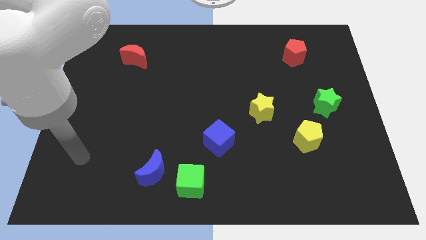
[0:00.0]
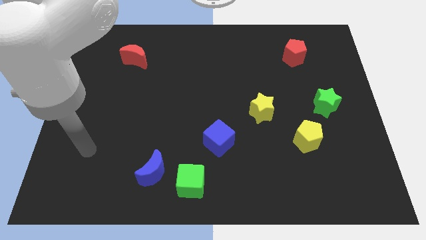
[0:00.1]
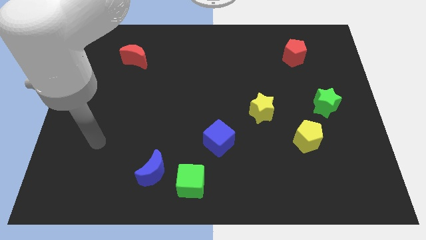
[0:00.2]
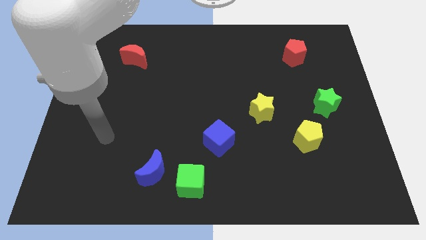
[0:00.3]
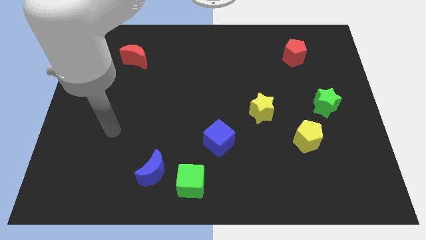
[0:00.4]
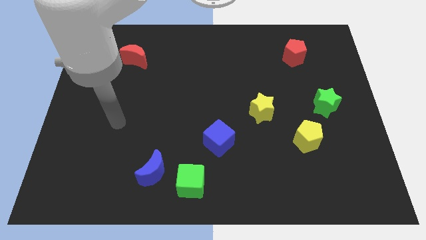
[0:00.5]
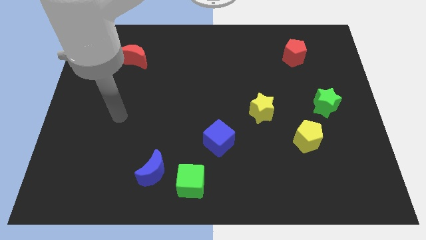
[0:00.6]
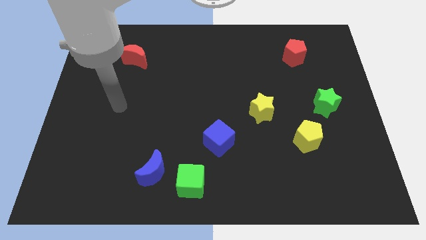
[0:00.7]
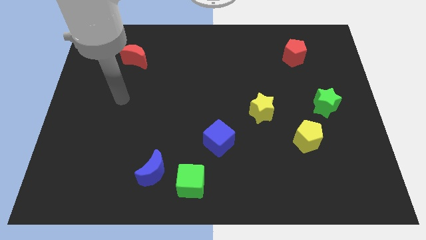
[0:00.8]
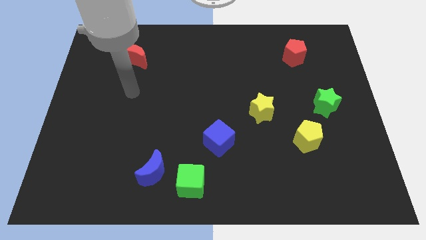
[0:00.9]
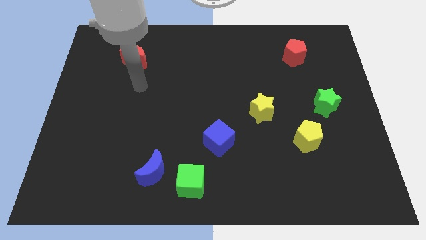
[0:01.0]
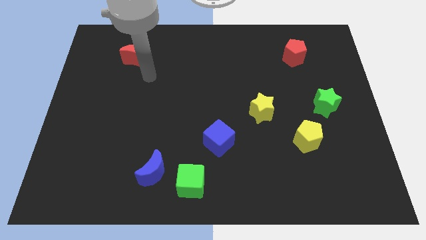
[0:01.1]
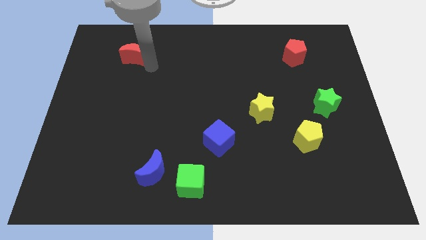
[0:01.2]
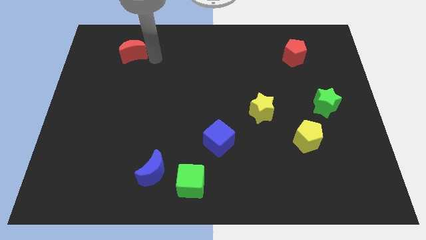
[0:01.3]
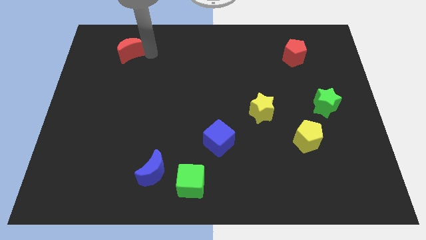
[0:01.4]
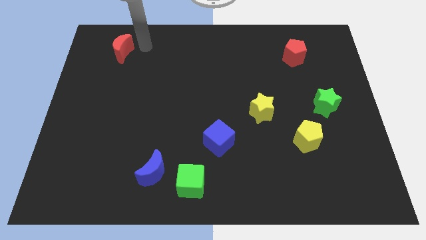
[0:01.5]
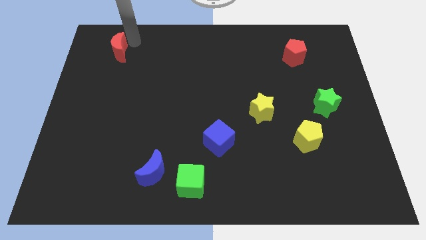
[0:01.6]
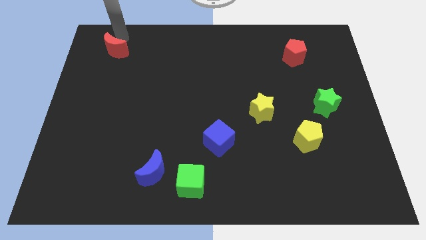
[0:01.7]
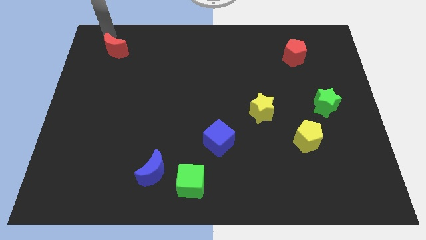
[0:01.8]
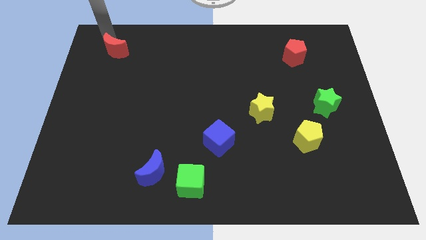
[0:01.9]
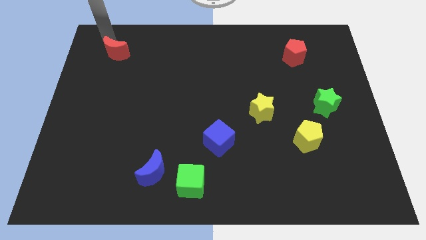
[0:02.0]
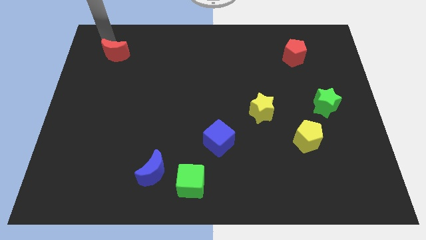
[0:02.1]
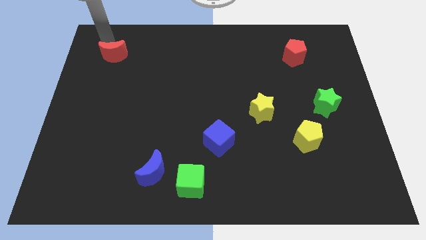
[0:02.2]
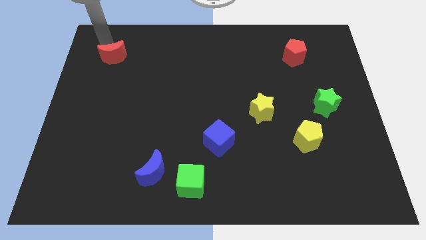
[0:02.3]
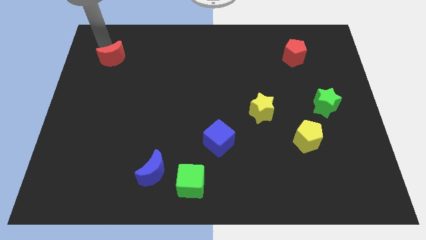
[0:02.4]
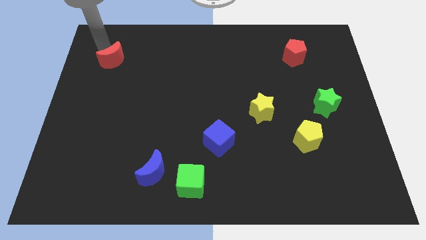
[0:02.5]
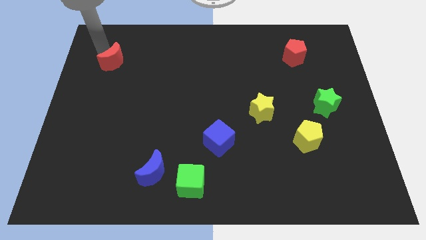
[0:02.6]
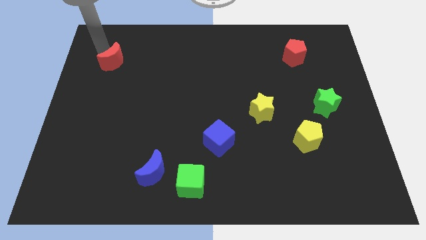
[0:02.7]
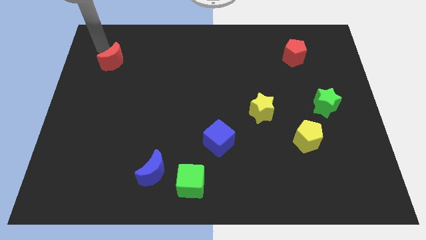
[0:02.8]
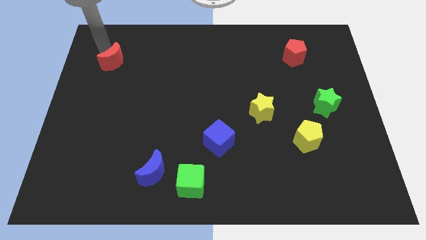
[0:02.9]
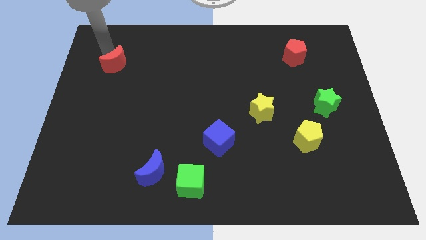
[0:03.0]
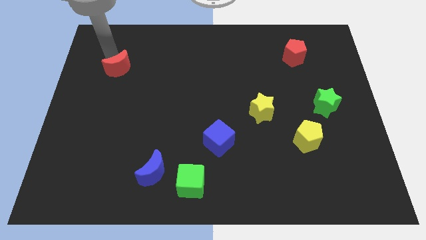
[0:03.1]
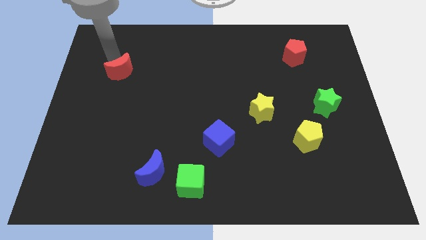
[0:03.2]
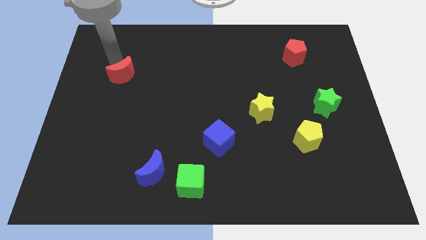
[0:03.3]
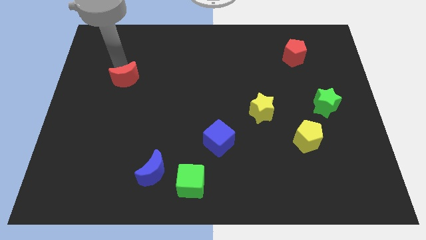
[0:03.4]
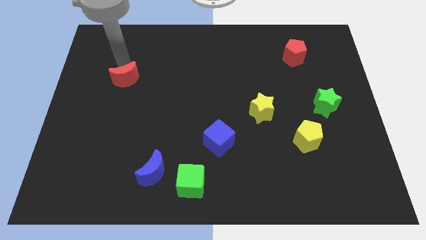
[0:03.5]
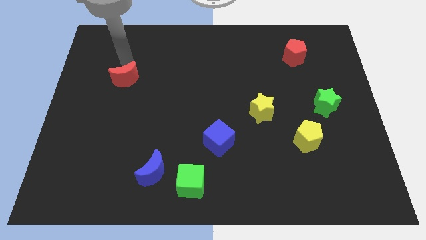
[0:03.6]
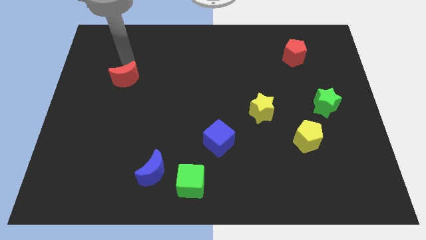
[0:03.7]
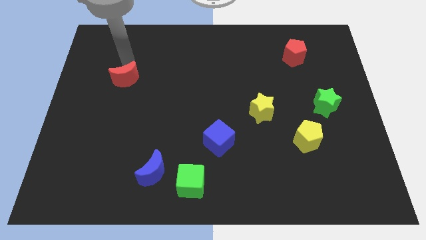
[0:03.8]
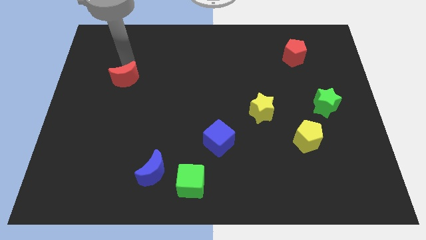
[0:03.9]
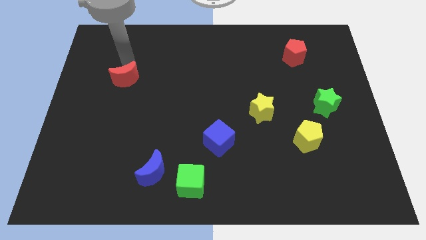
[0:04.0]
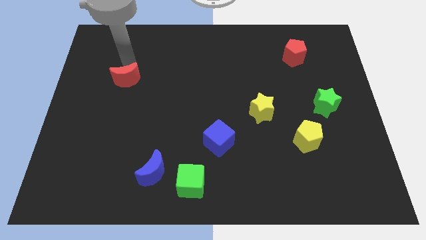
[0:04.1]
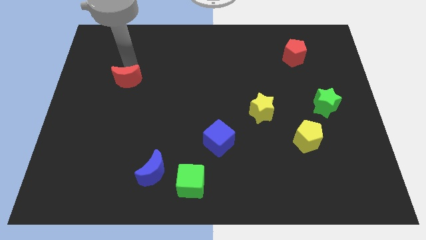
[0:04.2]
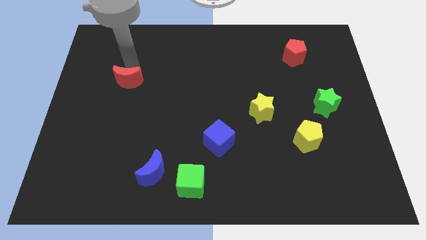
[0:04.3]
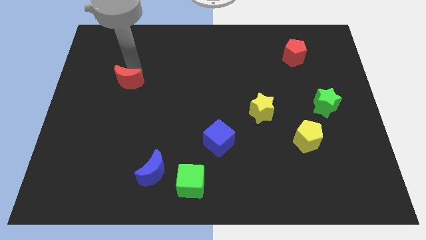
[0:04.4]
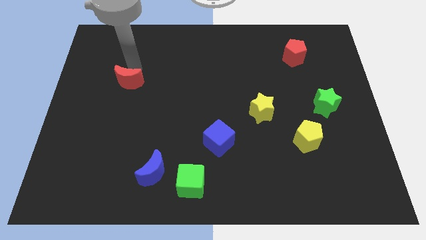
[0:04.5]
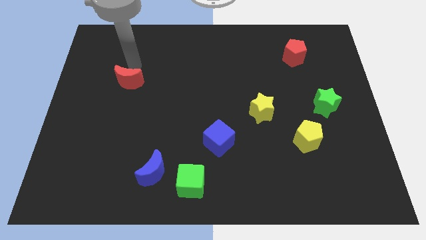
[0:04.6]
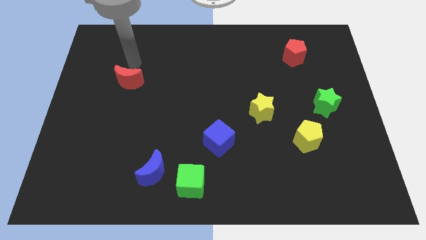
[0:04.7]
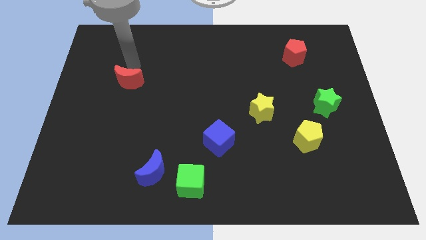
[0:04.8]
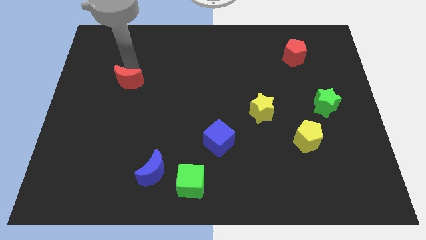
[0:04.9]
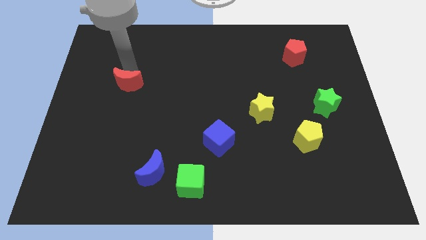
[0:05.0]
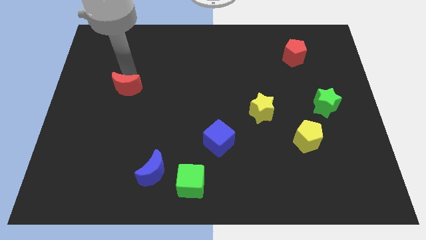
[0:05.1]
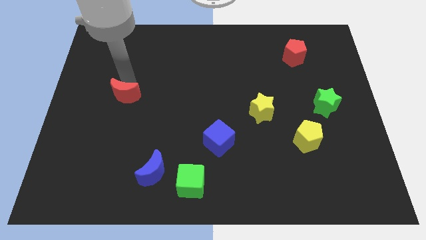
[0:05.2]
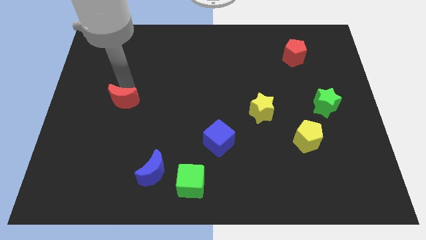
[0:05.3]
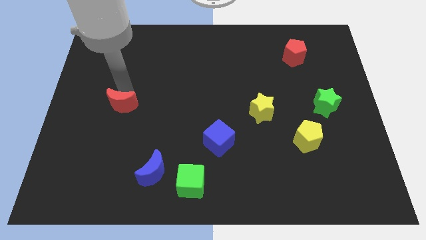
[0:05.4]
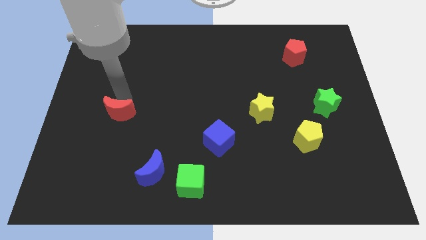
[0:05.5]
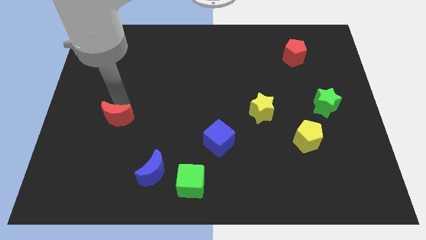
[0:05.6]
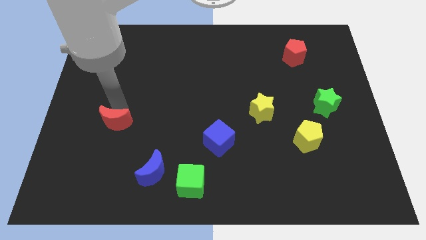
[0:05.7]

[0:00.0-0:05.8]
move the red moon downwards

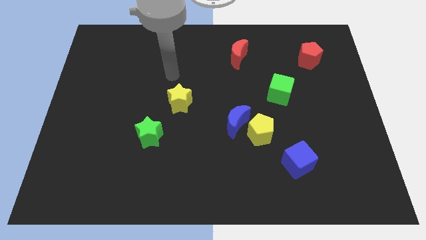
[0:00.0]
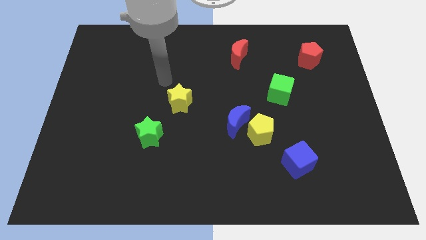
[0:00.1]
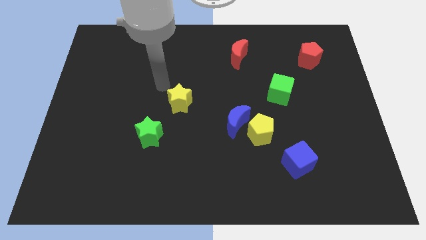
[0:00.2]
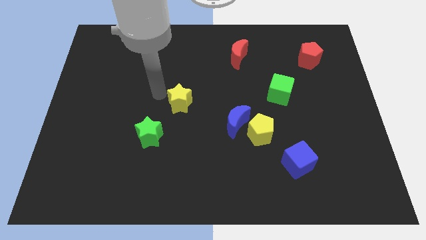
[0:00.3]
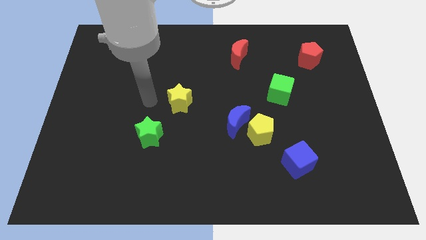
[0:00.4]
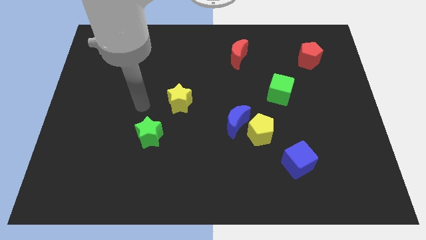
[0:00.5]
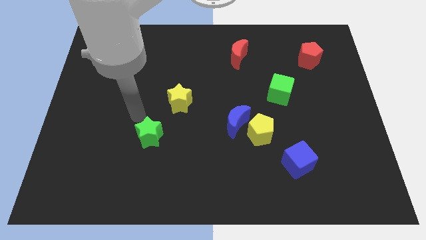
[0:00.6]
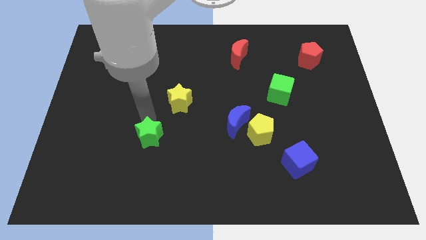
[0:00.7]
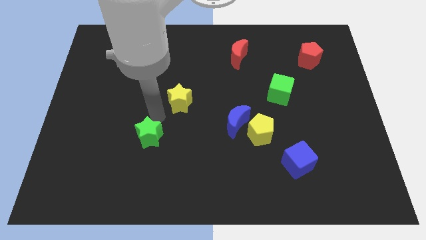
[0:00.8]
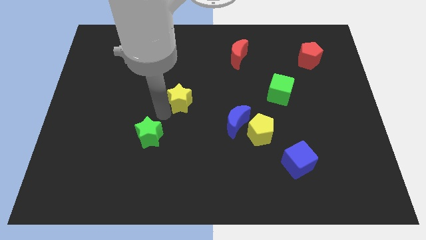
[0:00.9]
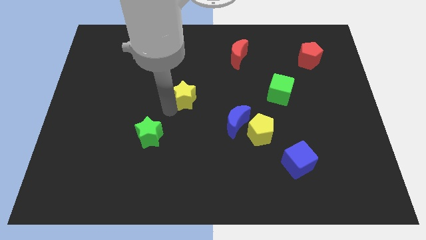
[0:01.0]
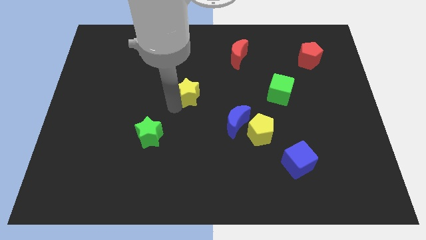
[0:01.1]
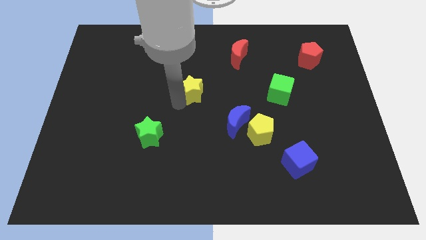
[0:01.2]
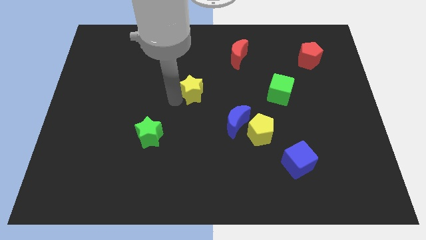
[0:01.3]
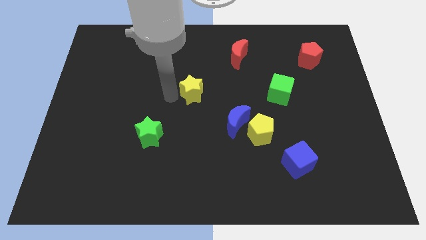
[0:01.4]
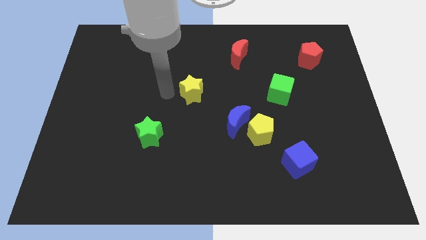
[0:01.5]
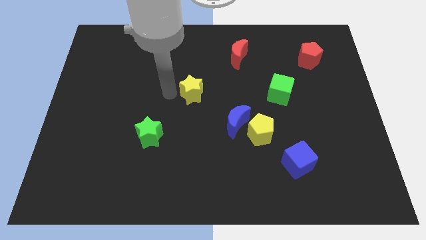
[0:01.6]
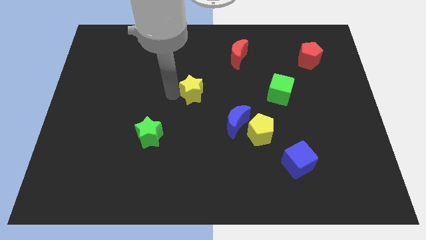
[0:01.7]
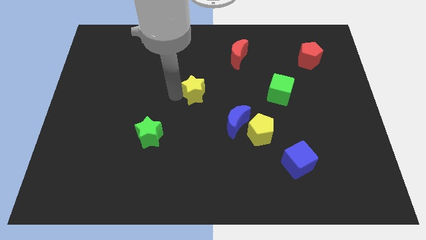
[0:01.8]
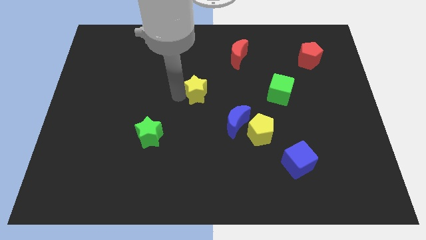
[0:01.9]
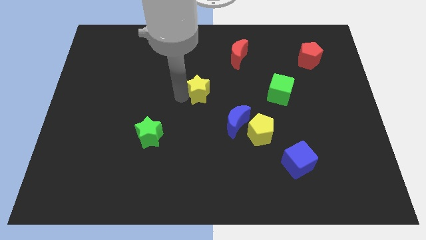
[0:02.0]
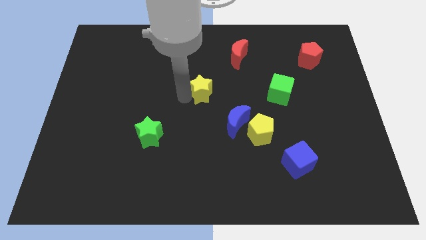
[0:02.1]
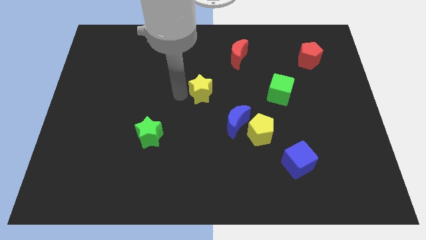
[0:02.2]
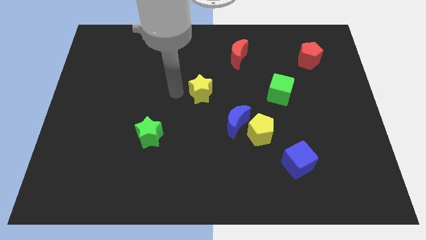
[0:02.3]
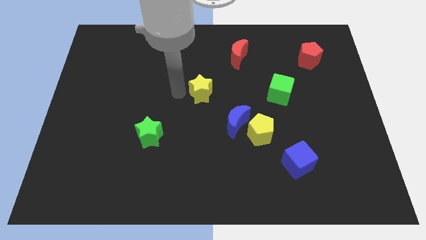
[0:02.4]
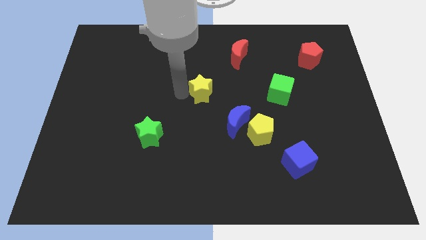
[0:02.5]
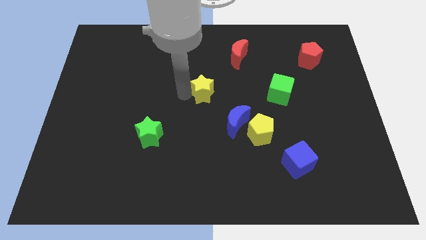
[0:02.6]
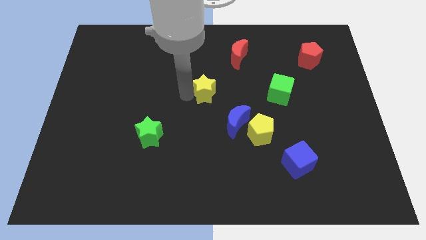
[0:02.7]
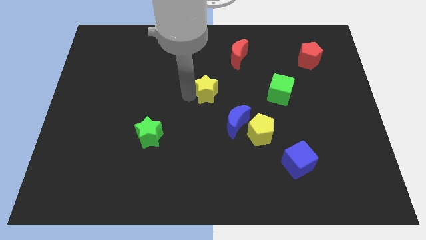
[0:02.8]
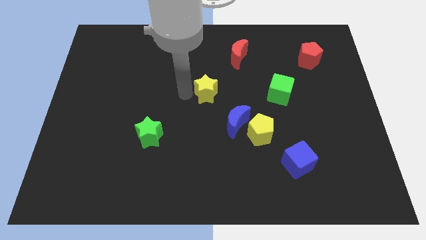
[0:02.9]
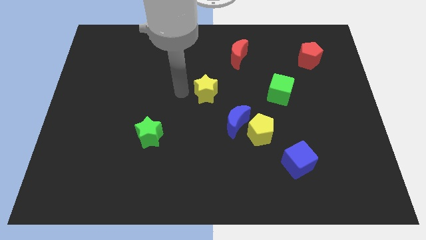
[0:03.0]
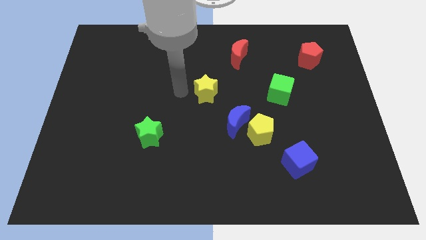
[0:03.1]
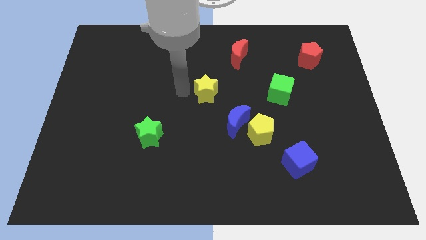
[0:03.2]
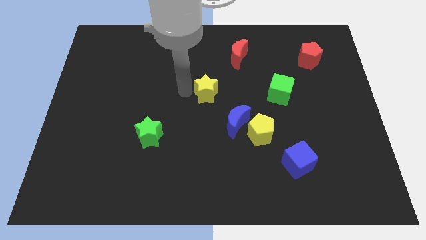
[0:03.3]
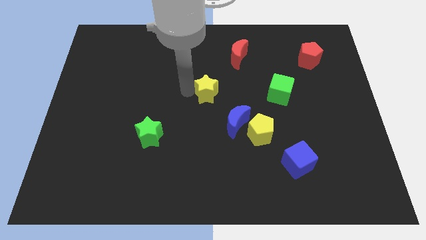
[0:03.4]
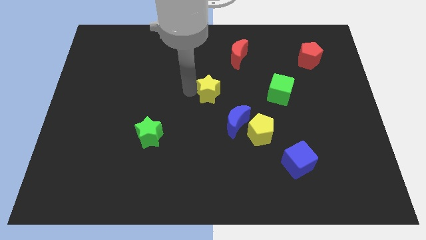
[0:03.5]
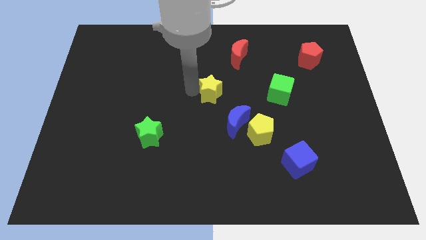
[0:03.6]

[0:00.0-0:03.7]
slide the yellow star right a bit
